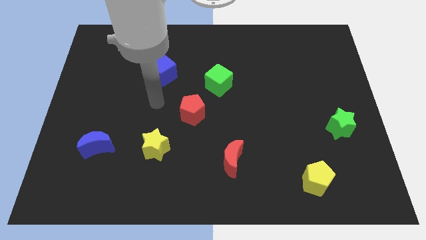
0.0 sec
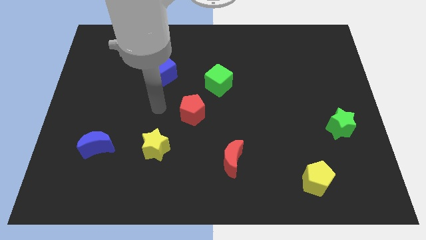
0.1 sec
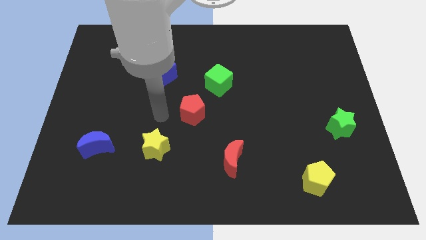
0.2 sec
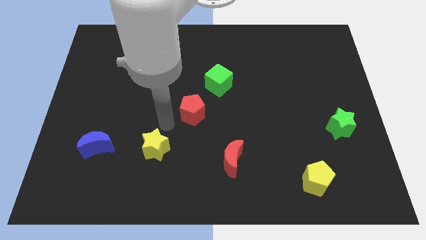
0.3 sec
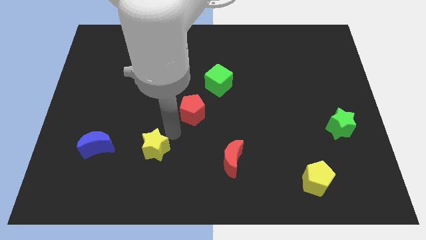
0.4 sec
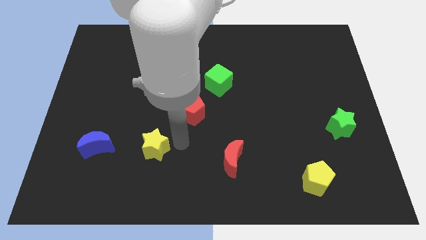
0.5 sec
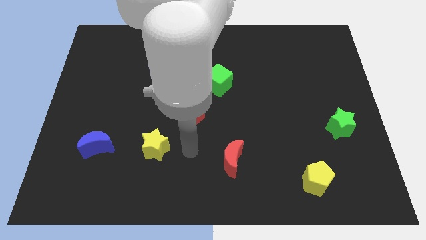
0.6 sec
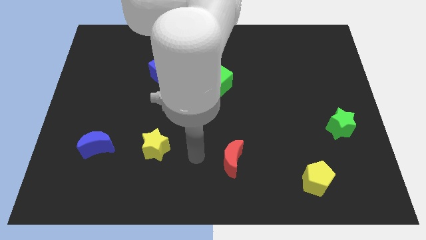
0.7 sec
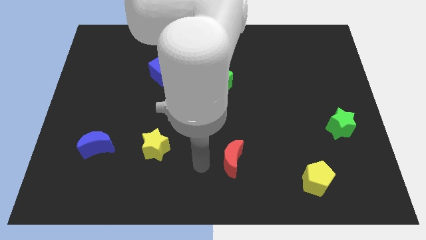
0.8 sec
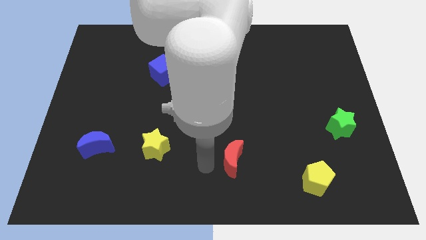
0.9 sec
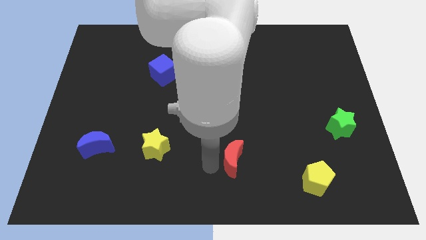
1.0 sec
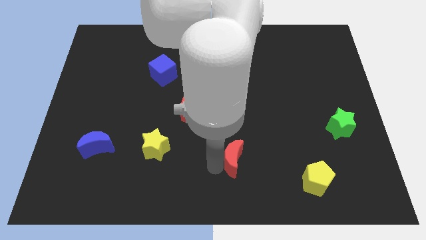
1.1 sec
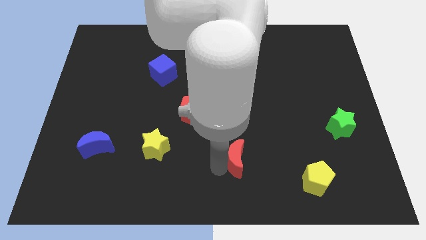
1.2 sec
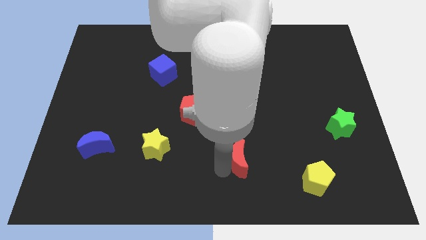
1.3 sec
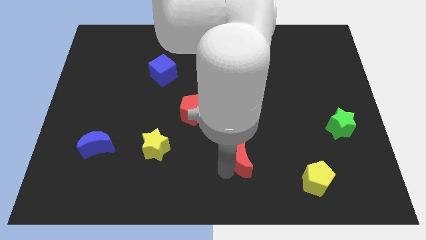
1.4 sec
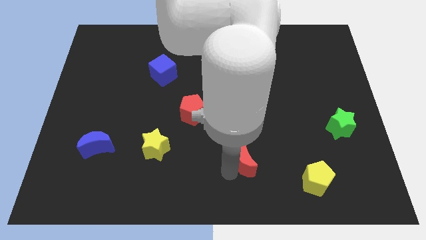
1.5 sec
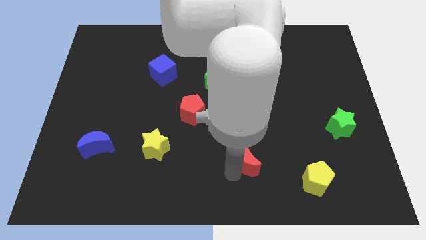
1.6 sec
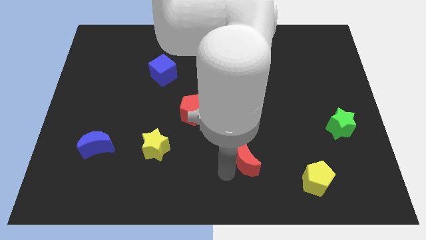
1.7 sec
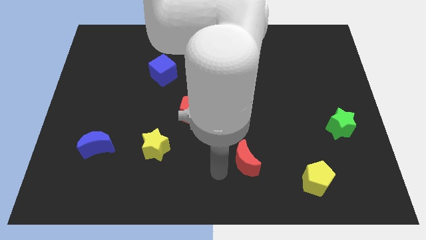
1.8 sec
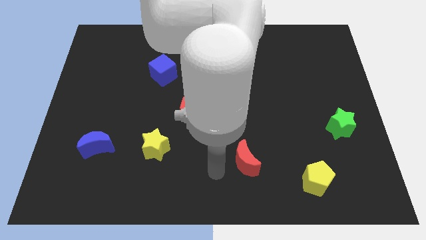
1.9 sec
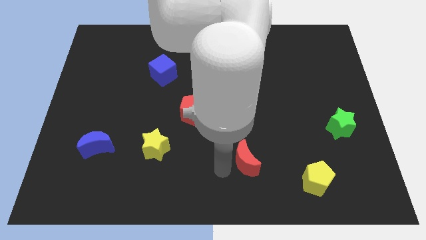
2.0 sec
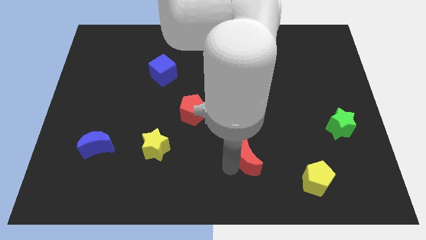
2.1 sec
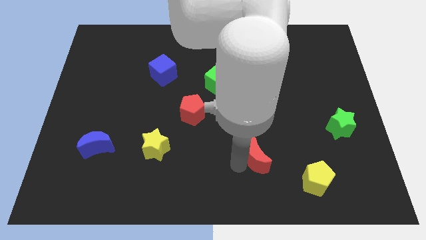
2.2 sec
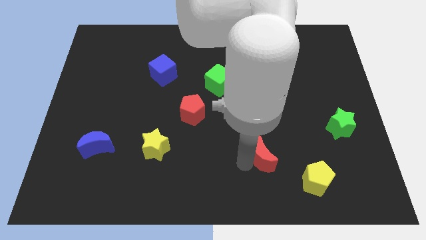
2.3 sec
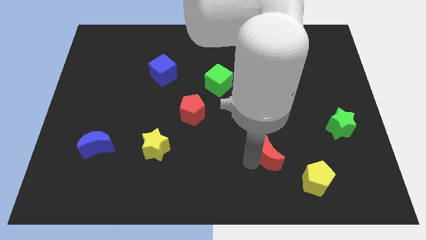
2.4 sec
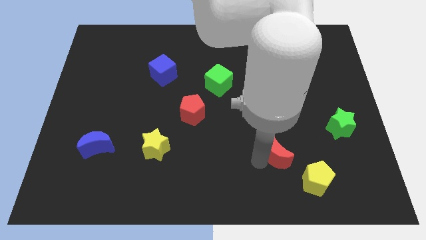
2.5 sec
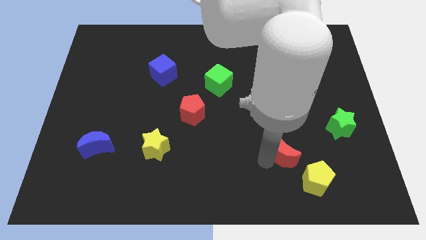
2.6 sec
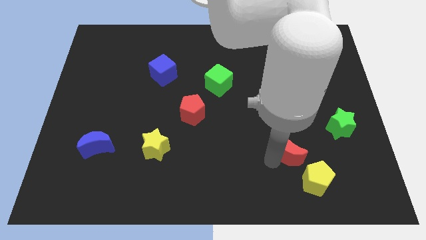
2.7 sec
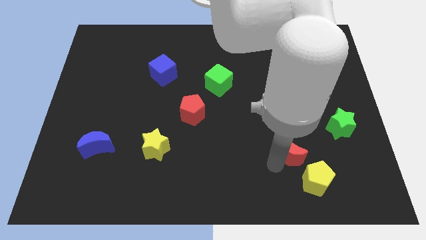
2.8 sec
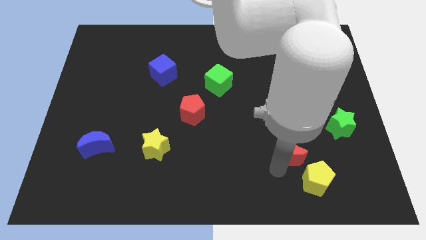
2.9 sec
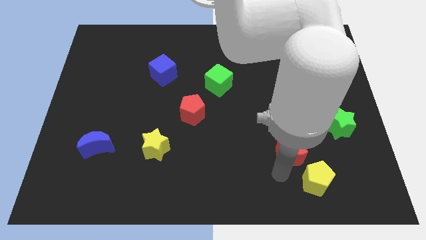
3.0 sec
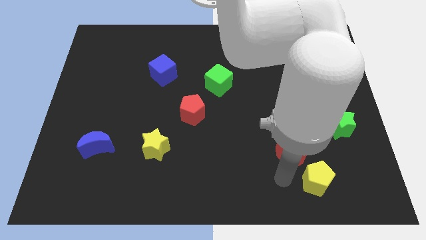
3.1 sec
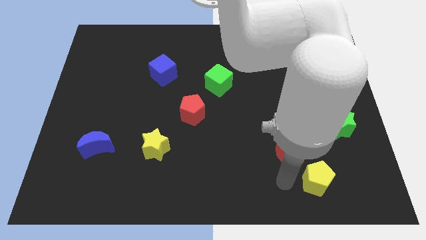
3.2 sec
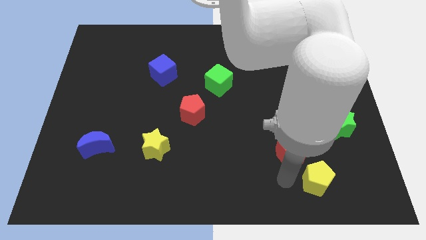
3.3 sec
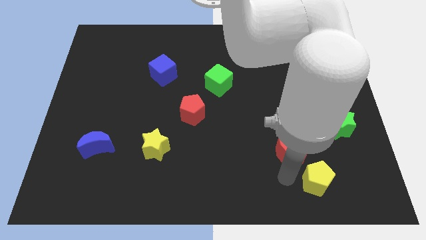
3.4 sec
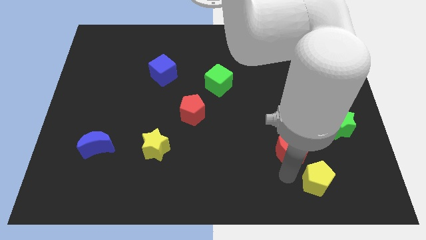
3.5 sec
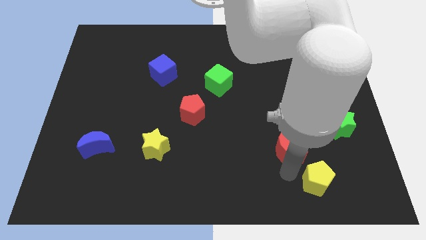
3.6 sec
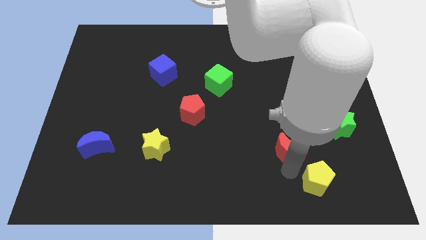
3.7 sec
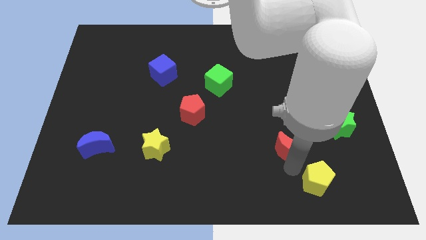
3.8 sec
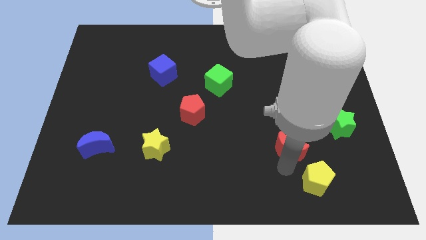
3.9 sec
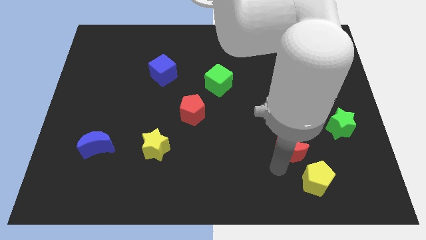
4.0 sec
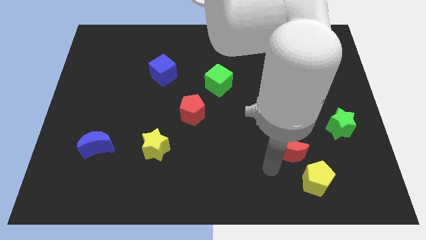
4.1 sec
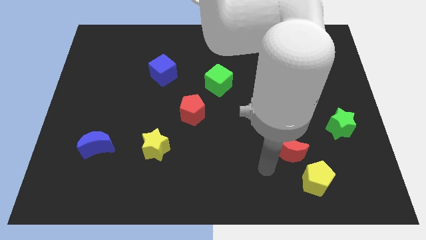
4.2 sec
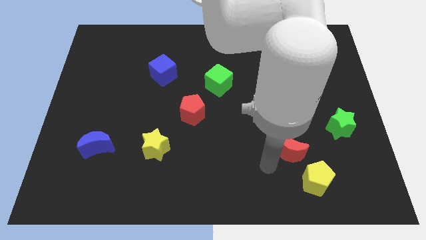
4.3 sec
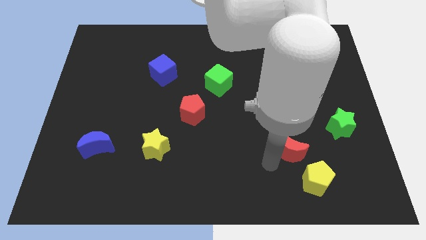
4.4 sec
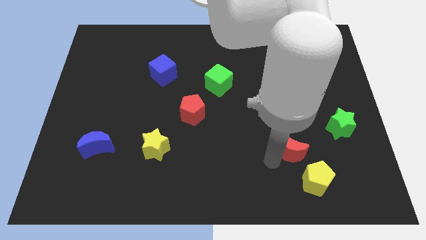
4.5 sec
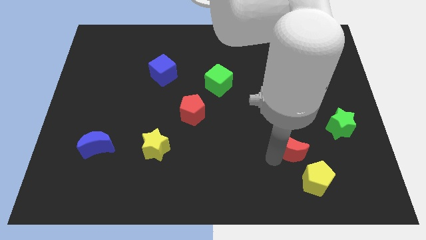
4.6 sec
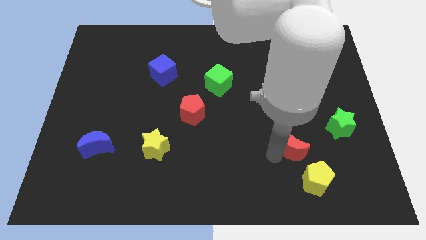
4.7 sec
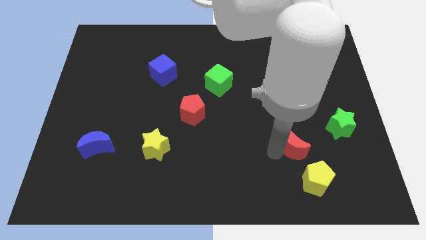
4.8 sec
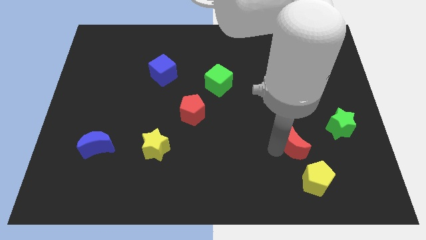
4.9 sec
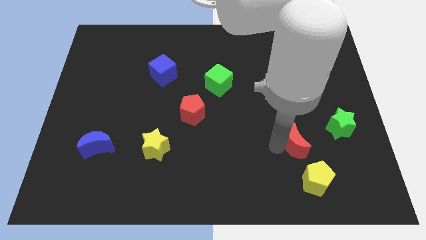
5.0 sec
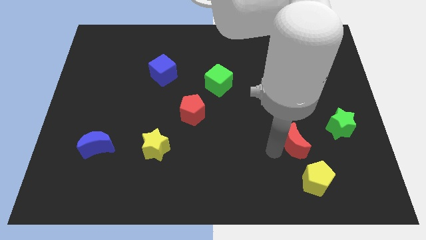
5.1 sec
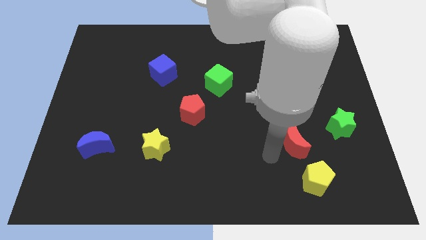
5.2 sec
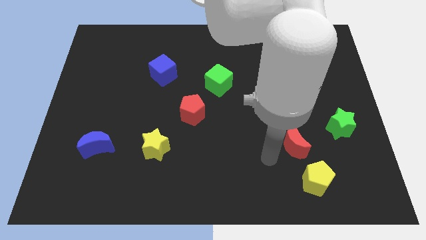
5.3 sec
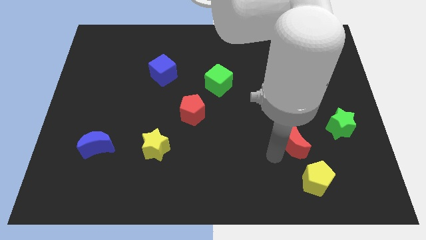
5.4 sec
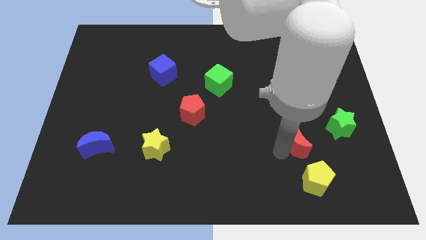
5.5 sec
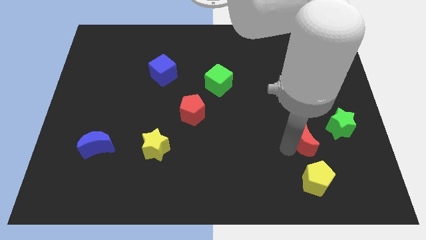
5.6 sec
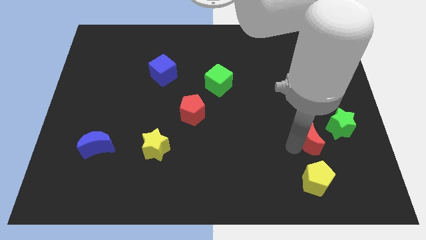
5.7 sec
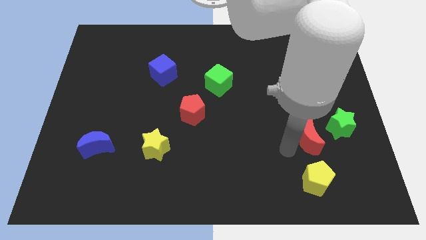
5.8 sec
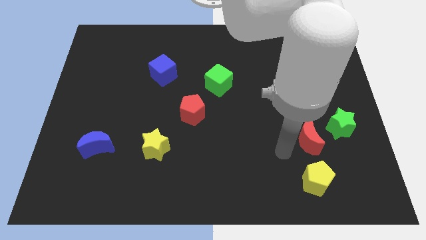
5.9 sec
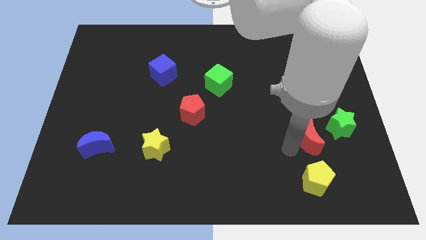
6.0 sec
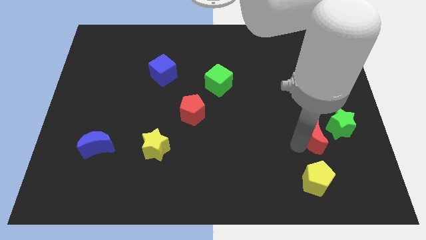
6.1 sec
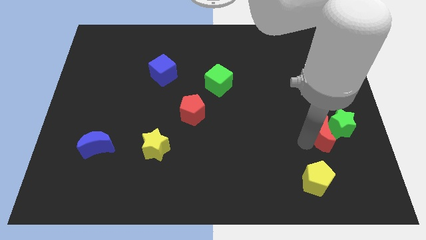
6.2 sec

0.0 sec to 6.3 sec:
move the red moon close to the green star

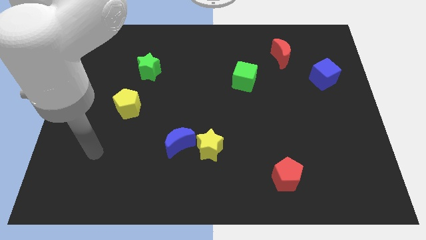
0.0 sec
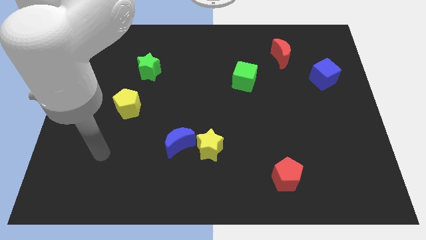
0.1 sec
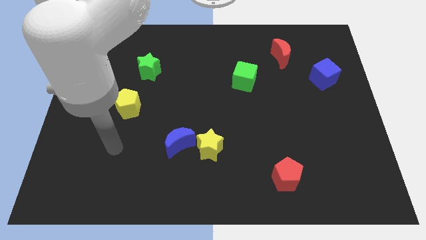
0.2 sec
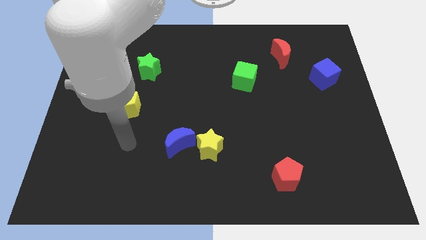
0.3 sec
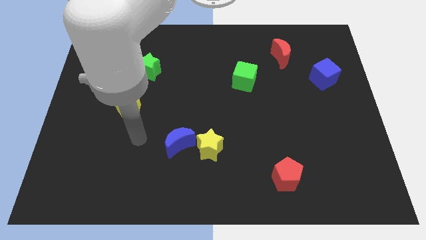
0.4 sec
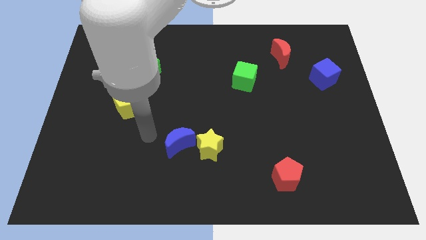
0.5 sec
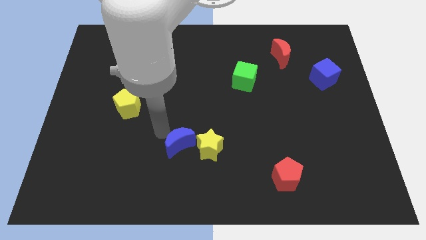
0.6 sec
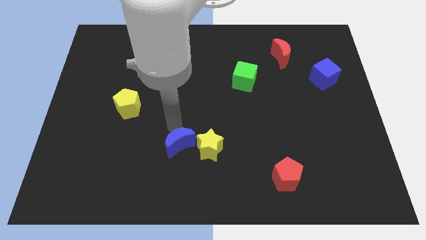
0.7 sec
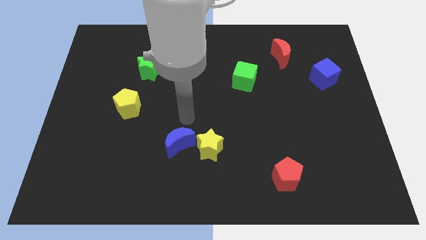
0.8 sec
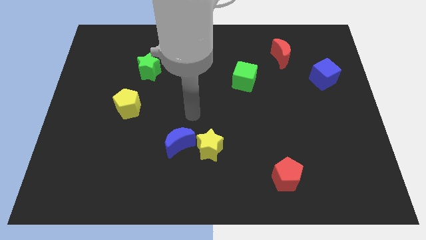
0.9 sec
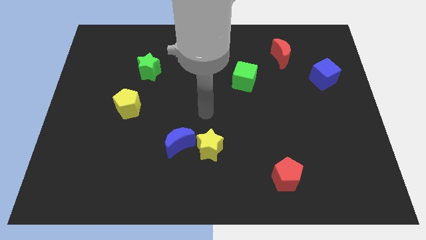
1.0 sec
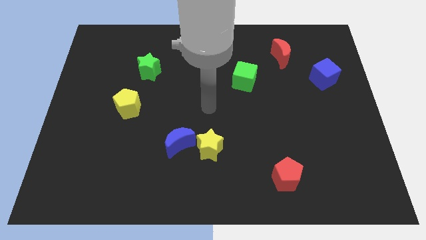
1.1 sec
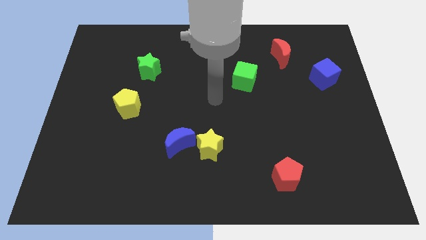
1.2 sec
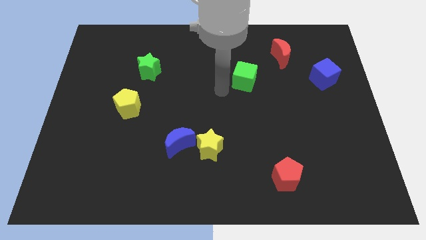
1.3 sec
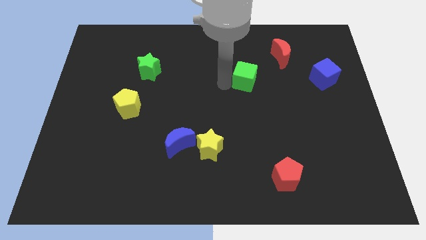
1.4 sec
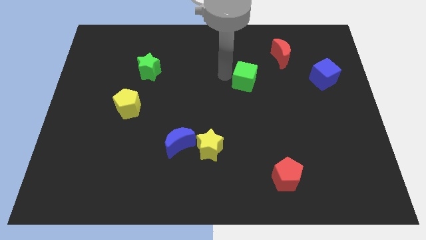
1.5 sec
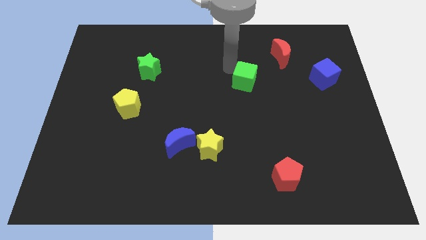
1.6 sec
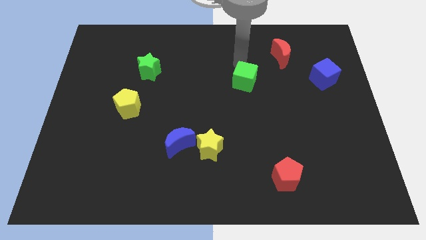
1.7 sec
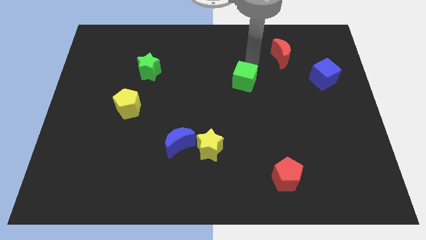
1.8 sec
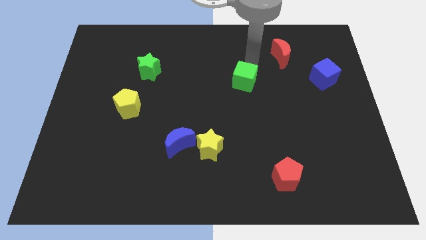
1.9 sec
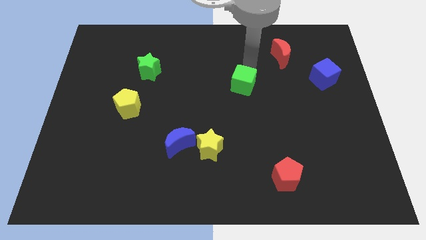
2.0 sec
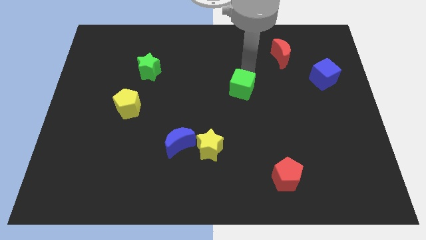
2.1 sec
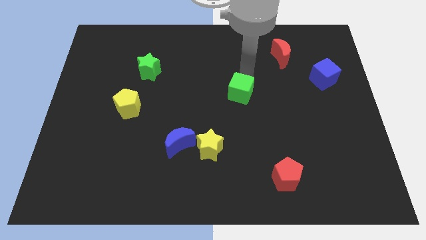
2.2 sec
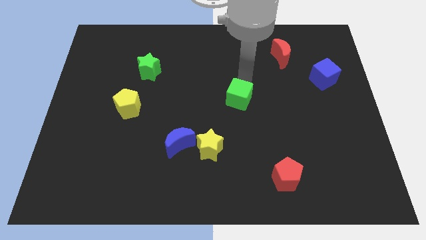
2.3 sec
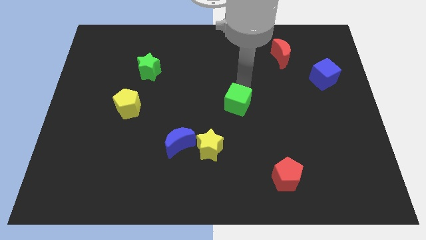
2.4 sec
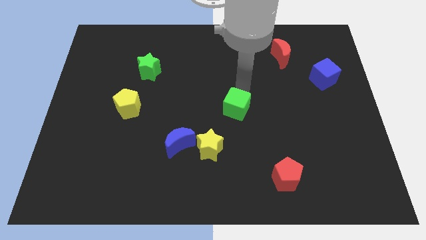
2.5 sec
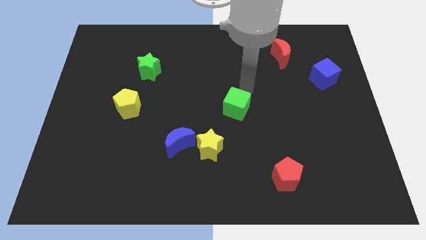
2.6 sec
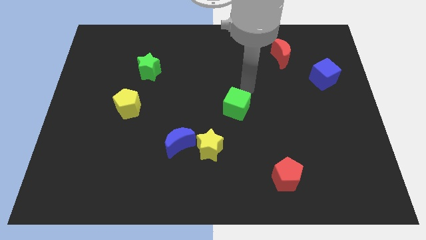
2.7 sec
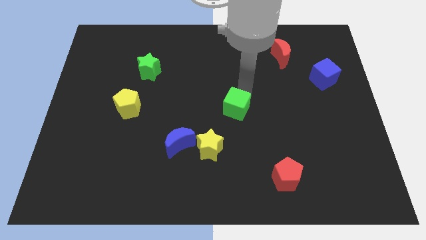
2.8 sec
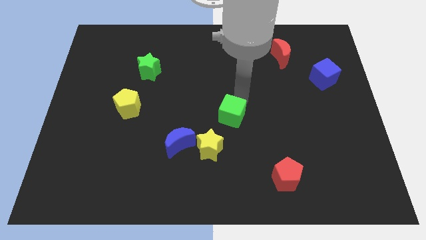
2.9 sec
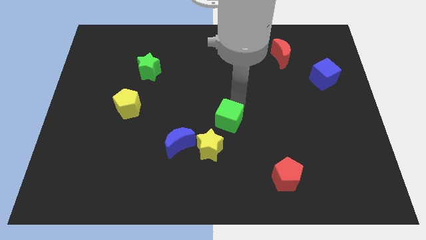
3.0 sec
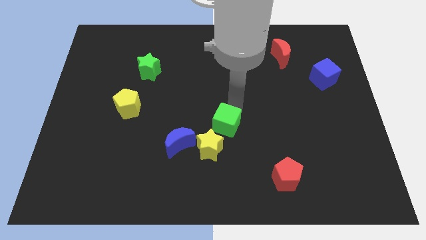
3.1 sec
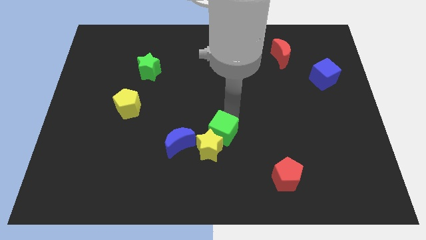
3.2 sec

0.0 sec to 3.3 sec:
push the green cube next to the yellow star
